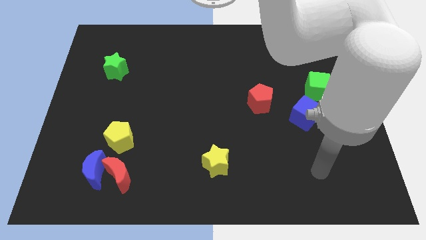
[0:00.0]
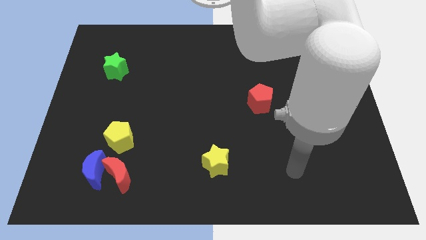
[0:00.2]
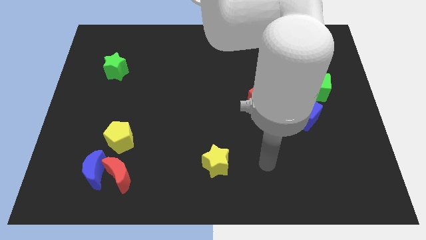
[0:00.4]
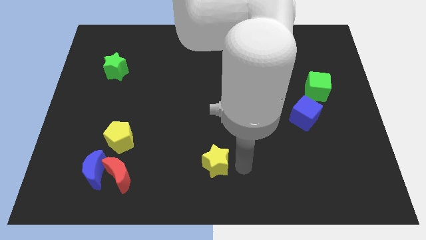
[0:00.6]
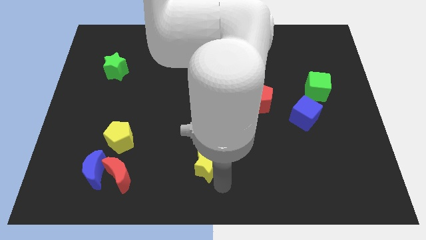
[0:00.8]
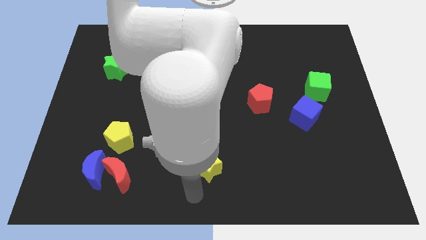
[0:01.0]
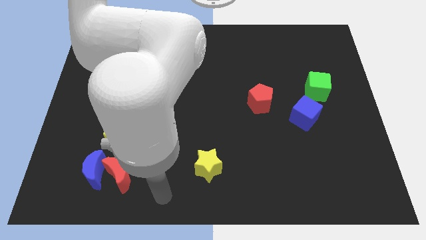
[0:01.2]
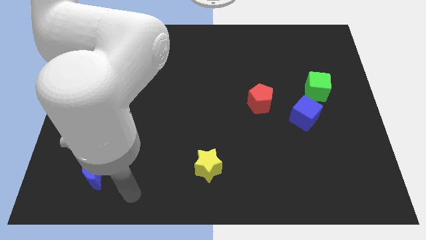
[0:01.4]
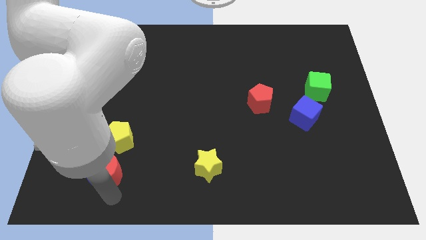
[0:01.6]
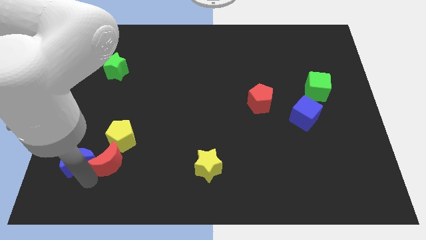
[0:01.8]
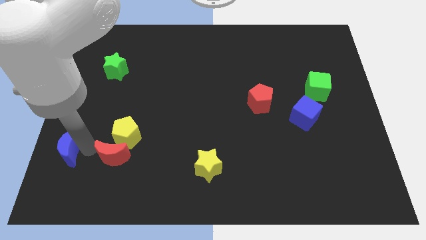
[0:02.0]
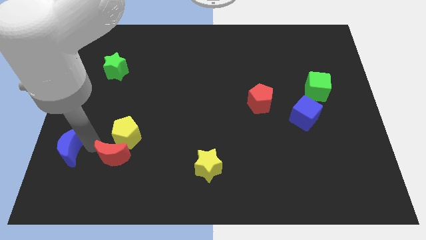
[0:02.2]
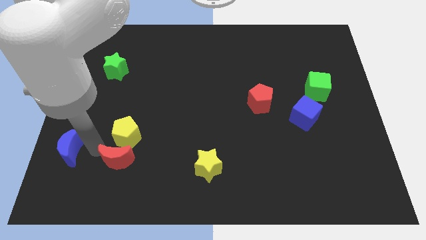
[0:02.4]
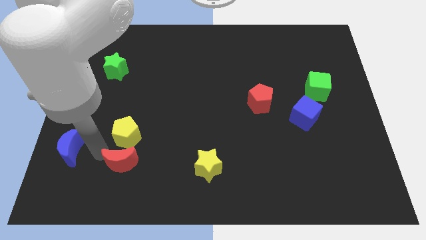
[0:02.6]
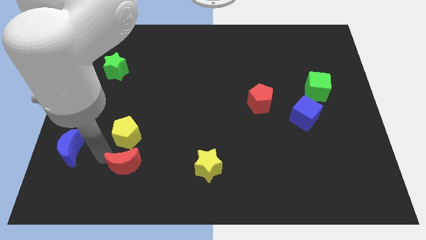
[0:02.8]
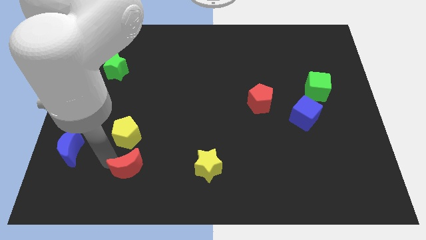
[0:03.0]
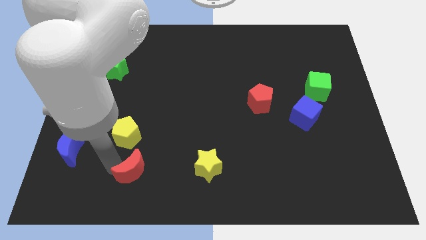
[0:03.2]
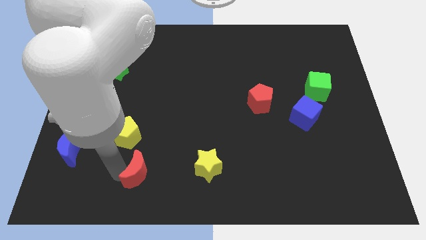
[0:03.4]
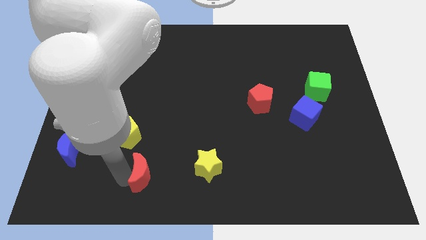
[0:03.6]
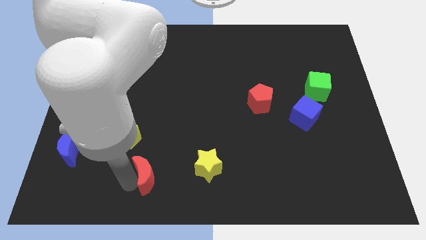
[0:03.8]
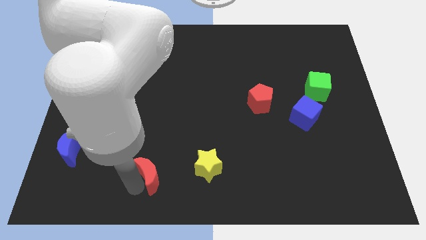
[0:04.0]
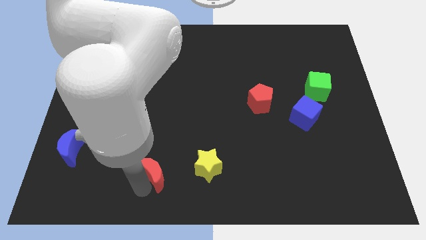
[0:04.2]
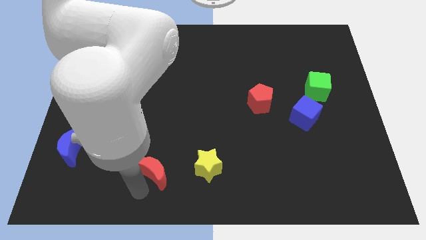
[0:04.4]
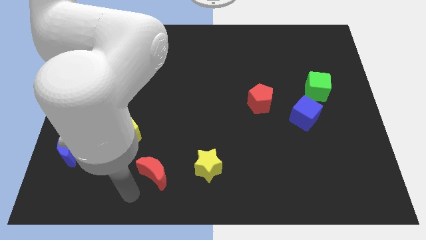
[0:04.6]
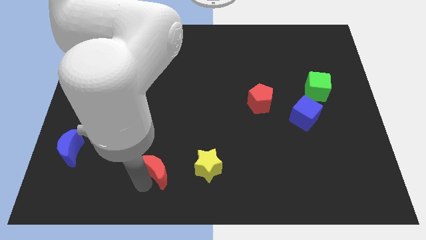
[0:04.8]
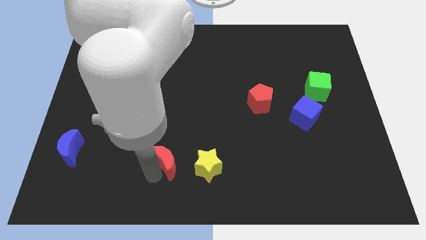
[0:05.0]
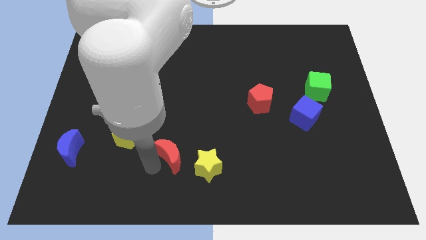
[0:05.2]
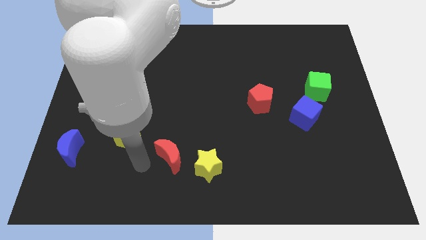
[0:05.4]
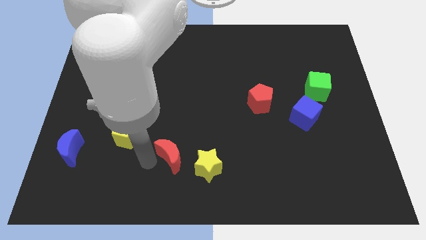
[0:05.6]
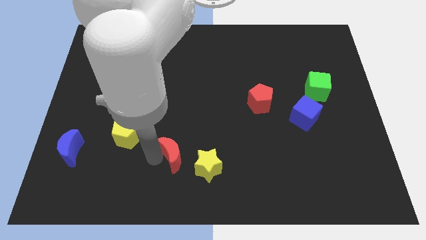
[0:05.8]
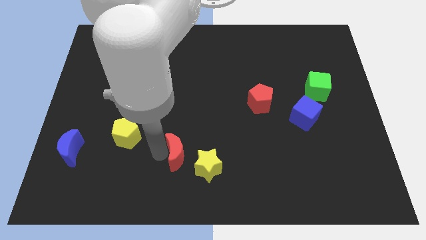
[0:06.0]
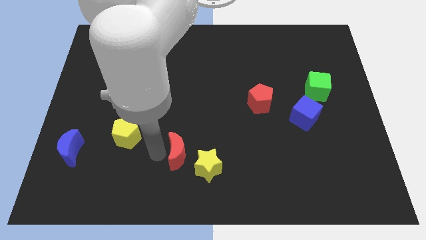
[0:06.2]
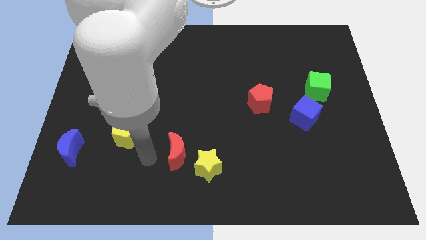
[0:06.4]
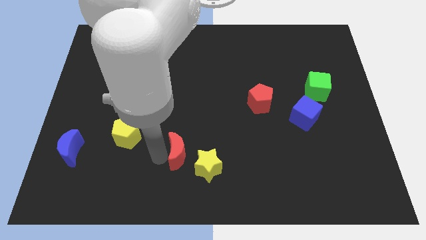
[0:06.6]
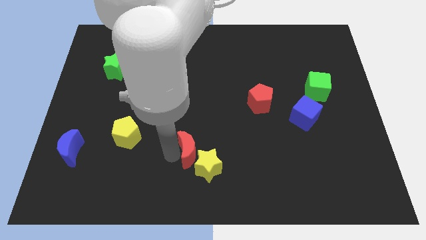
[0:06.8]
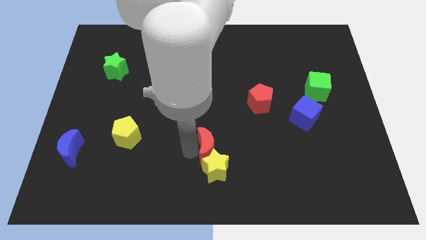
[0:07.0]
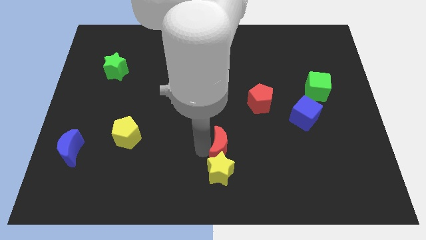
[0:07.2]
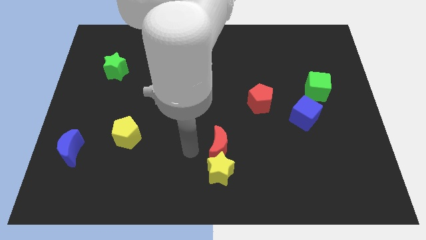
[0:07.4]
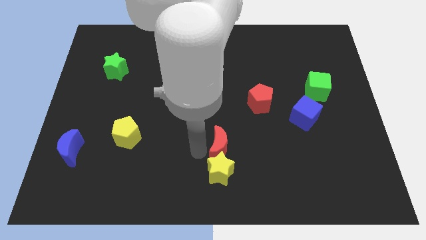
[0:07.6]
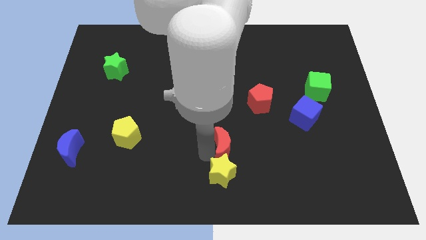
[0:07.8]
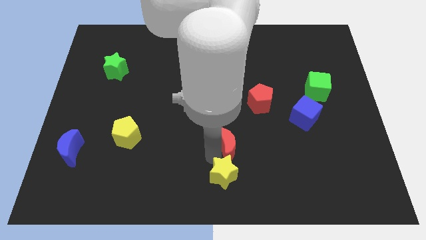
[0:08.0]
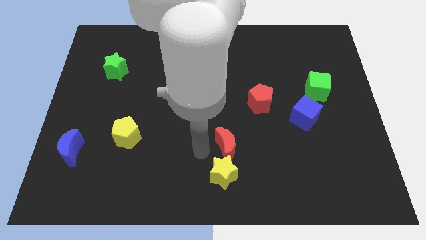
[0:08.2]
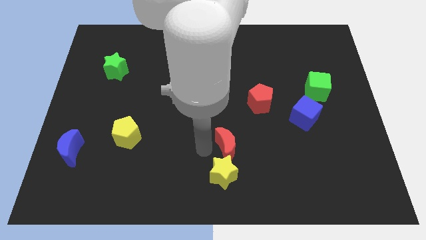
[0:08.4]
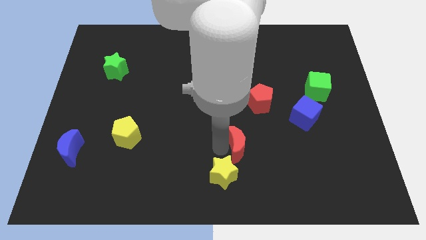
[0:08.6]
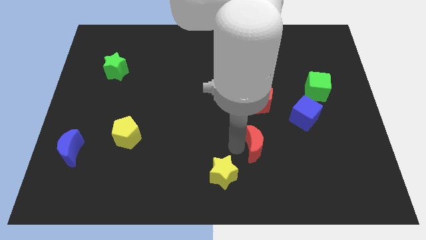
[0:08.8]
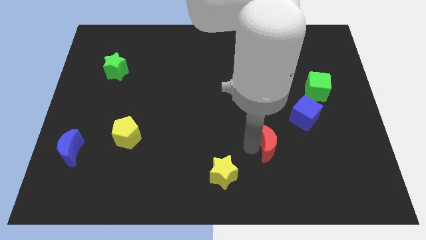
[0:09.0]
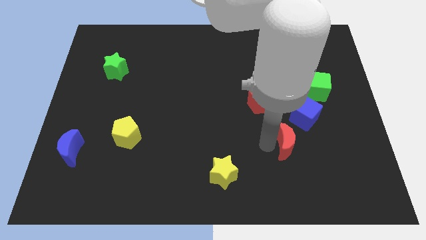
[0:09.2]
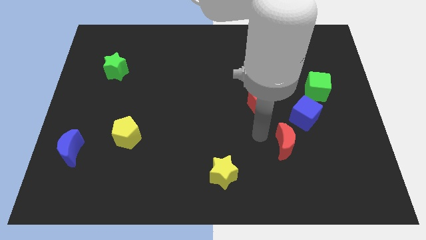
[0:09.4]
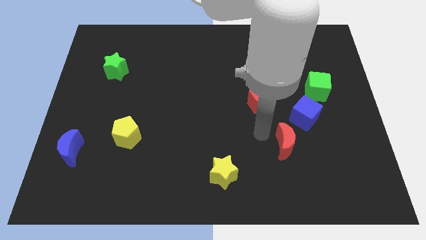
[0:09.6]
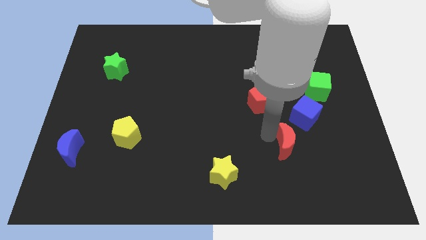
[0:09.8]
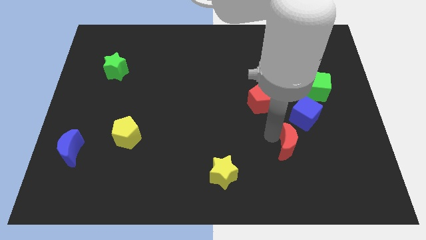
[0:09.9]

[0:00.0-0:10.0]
put the red moon to the bottom side of the blue cube

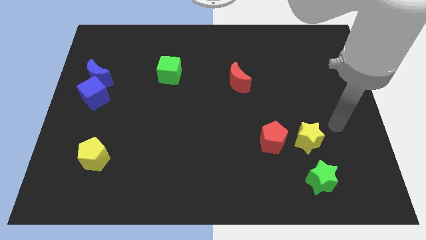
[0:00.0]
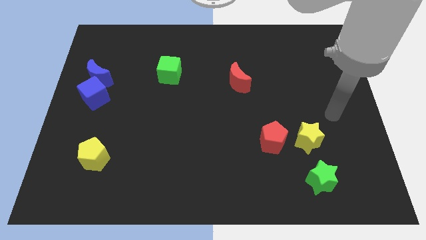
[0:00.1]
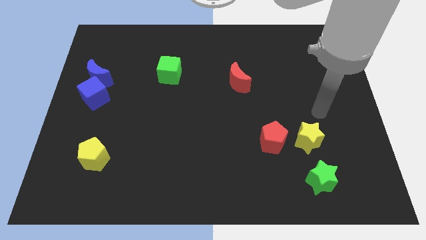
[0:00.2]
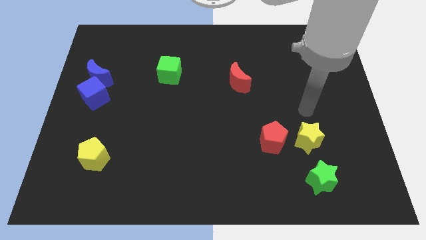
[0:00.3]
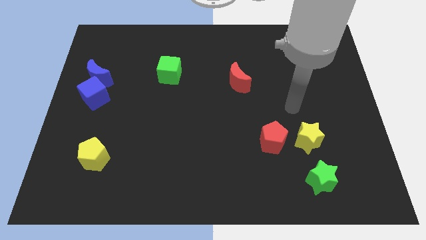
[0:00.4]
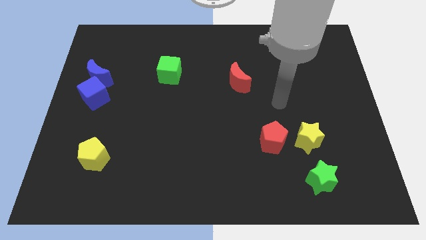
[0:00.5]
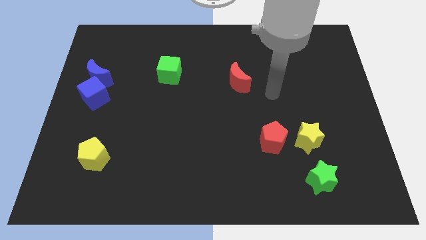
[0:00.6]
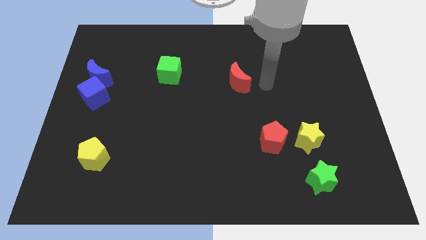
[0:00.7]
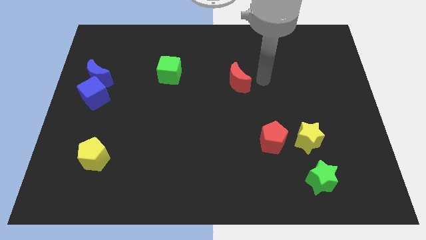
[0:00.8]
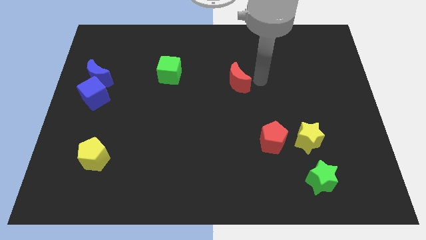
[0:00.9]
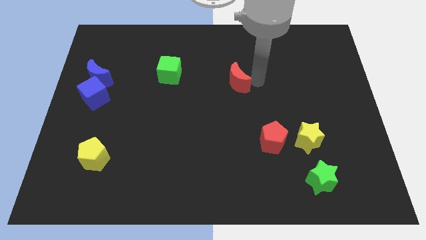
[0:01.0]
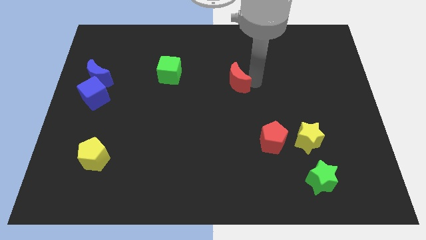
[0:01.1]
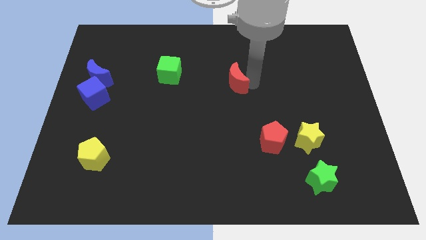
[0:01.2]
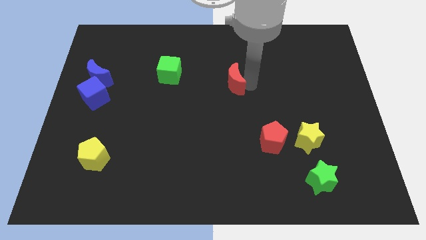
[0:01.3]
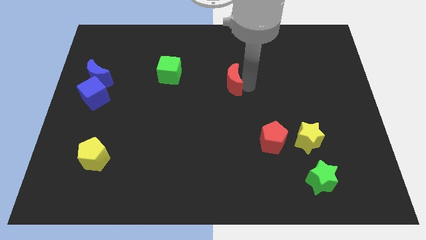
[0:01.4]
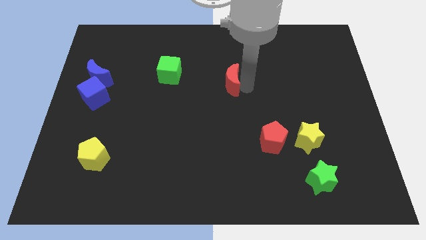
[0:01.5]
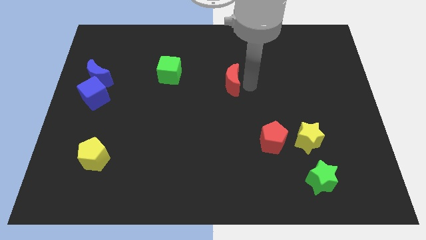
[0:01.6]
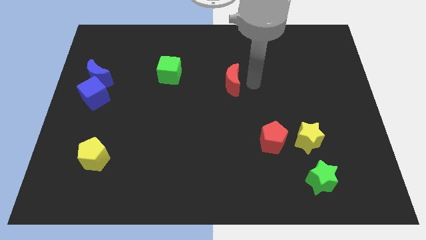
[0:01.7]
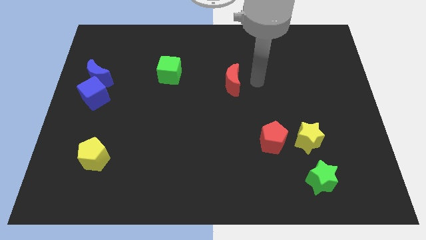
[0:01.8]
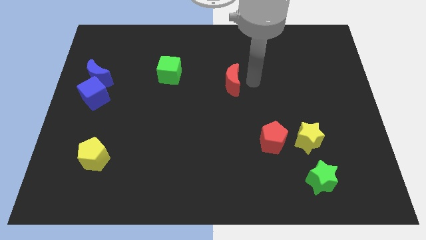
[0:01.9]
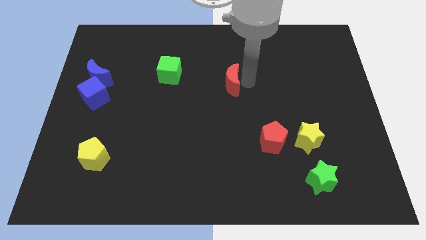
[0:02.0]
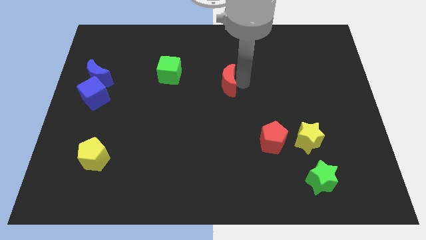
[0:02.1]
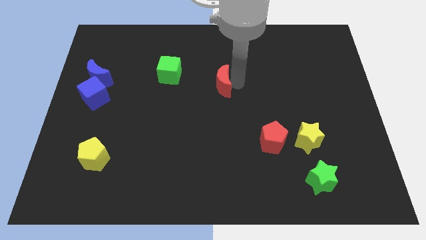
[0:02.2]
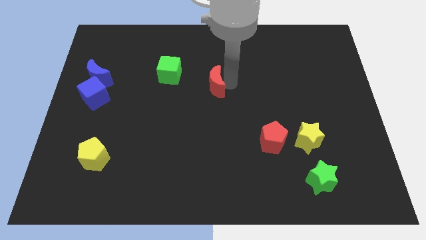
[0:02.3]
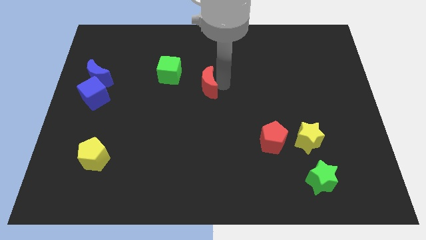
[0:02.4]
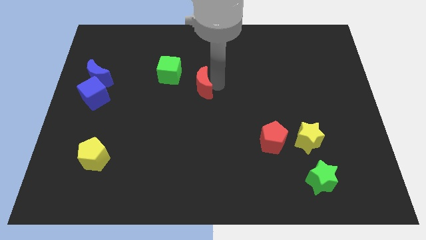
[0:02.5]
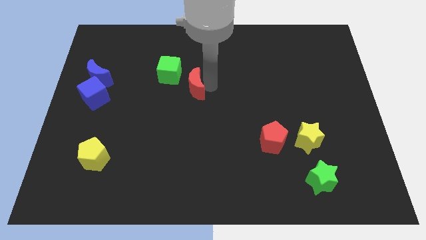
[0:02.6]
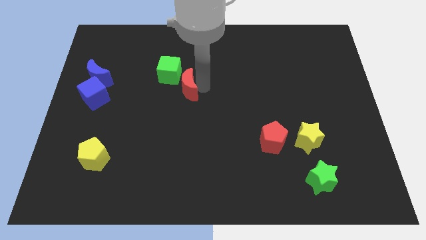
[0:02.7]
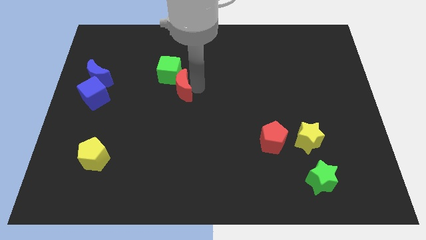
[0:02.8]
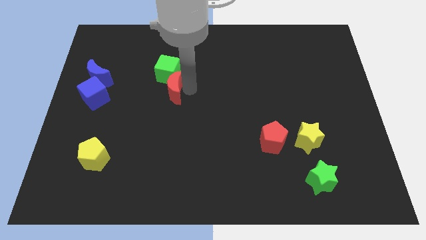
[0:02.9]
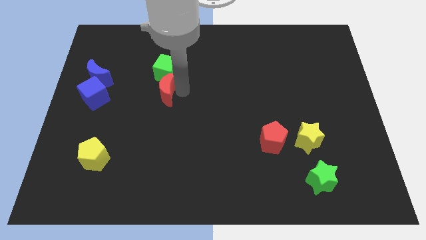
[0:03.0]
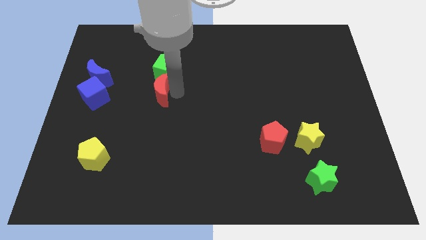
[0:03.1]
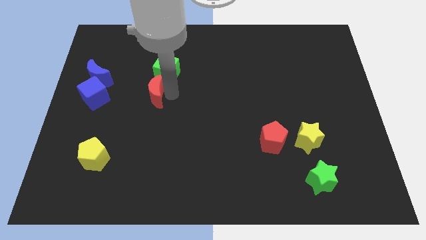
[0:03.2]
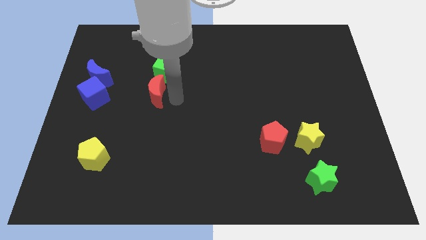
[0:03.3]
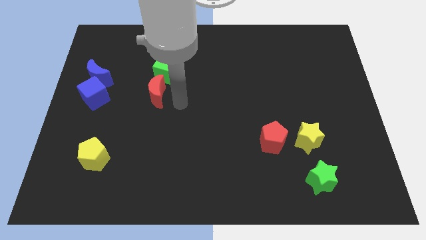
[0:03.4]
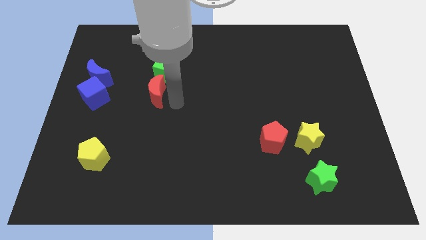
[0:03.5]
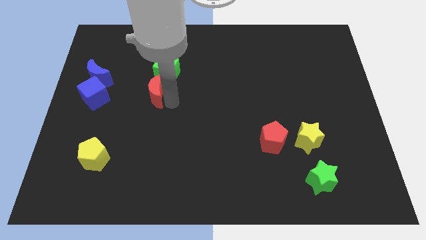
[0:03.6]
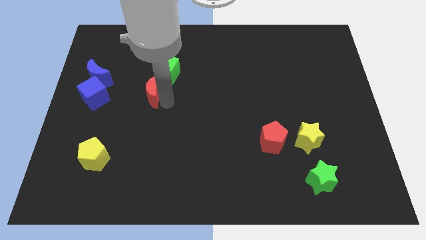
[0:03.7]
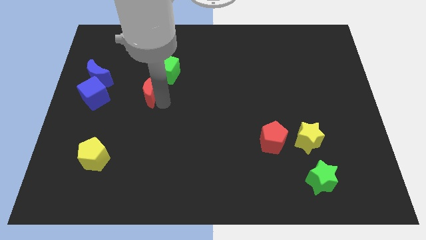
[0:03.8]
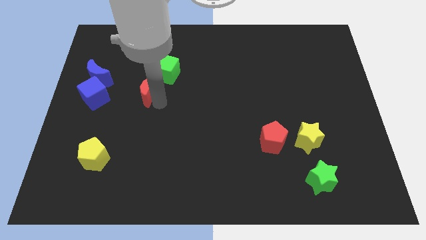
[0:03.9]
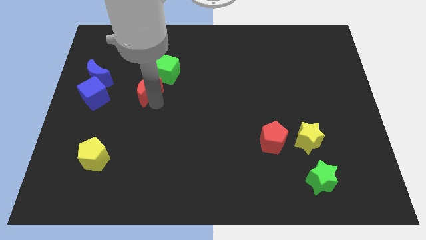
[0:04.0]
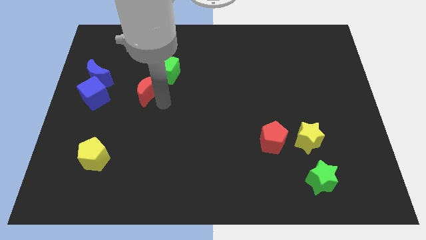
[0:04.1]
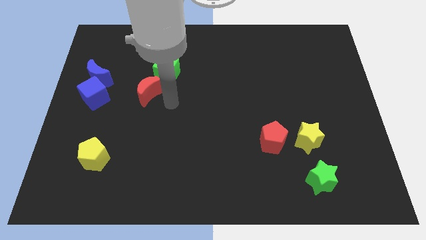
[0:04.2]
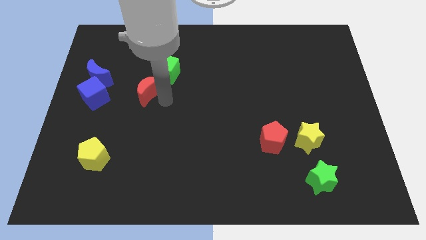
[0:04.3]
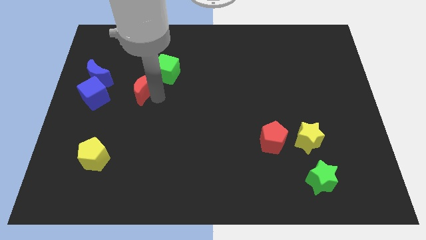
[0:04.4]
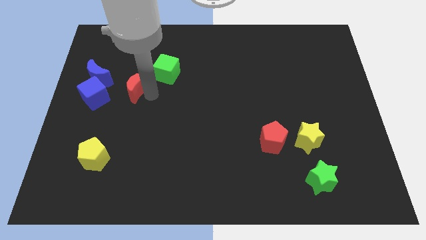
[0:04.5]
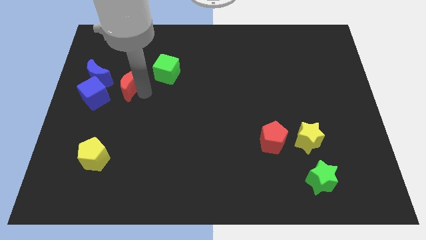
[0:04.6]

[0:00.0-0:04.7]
push the red moon to the top right side of the blue cube
